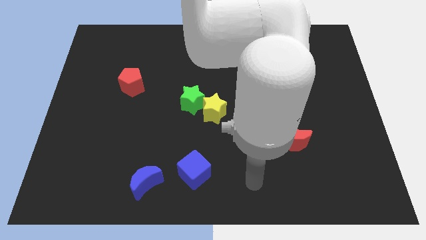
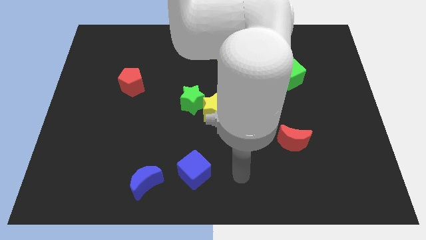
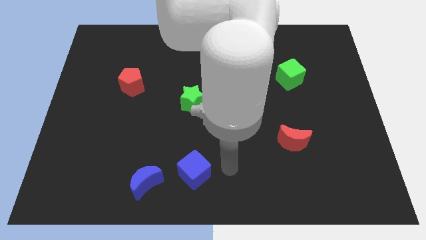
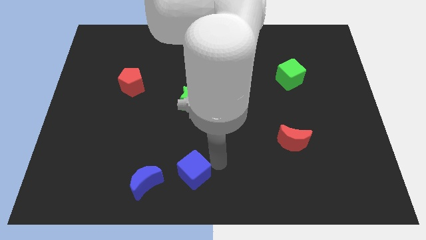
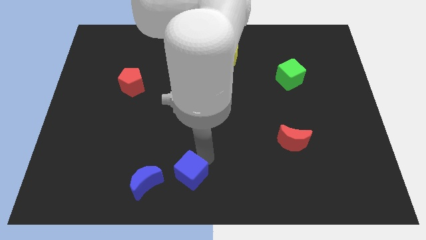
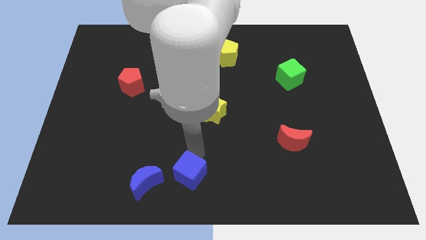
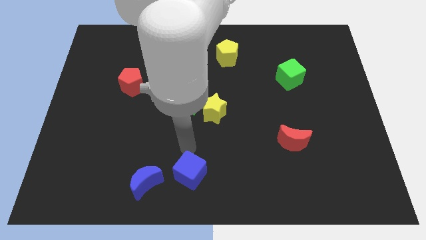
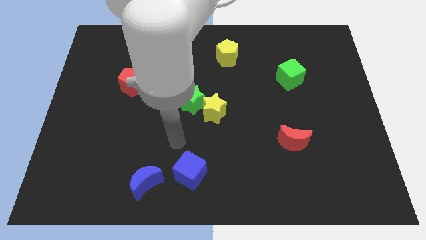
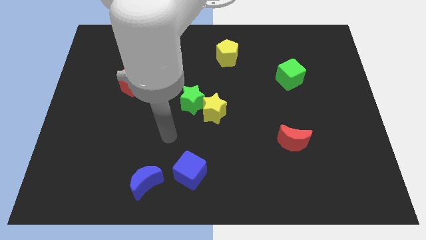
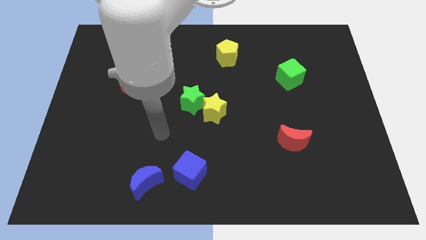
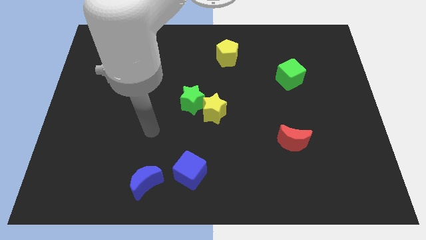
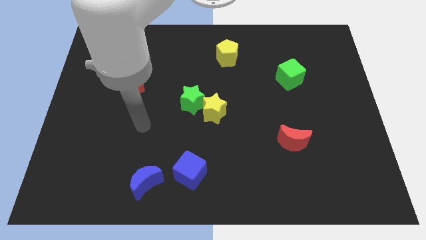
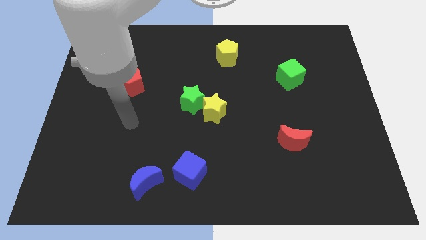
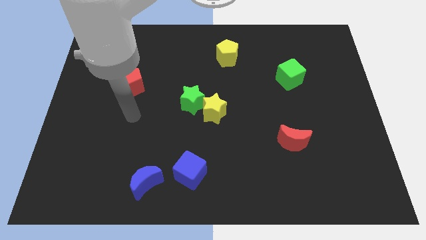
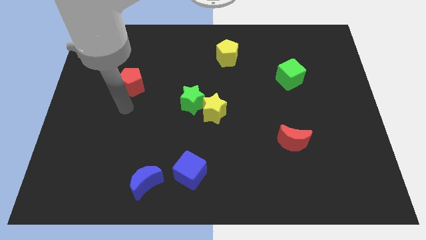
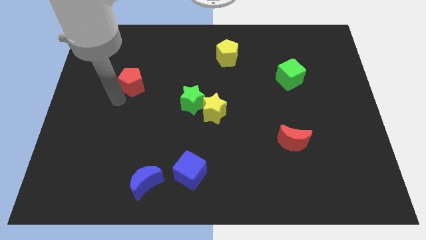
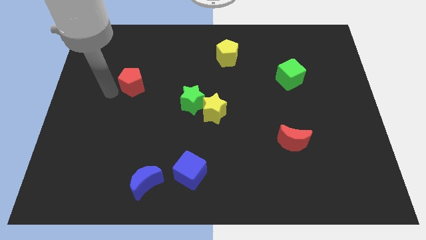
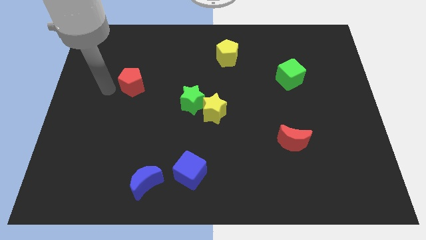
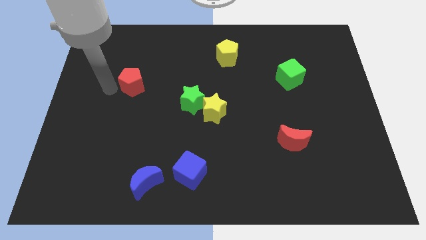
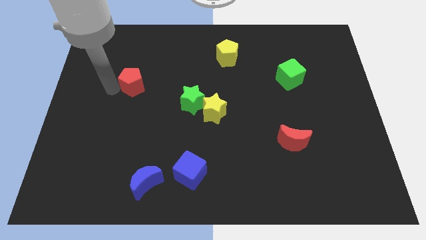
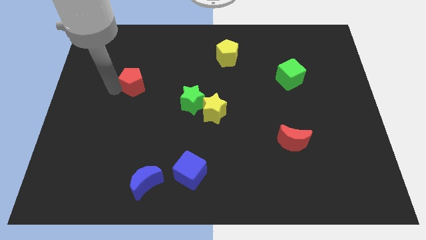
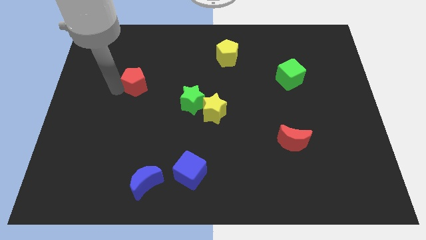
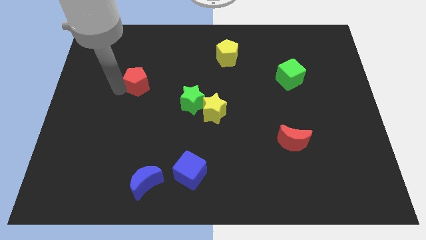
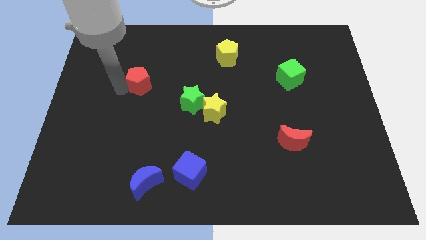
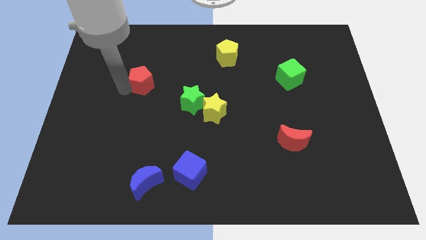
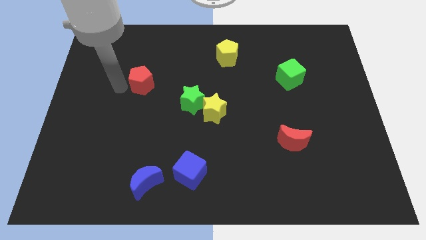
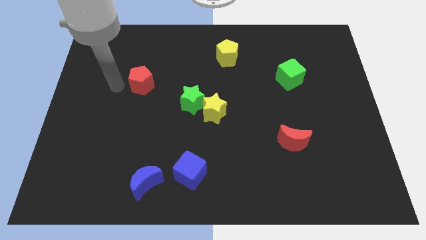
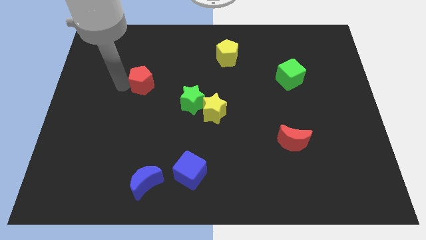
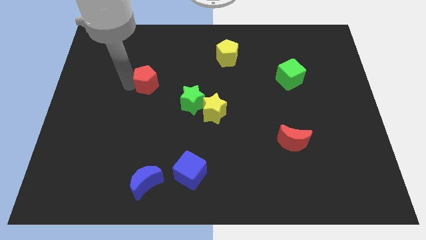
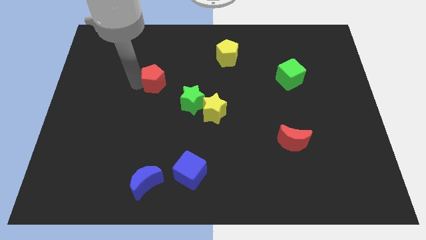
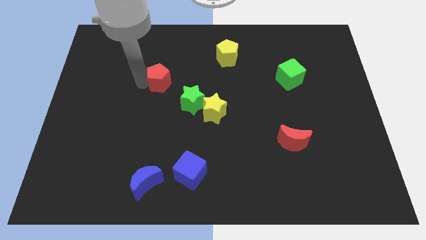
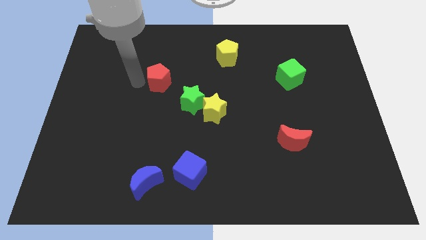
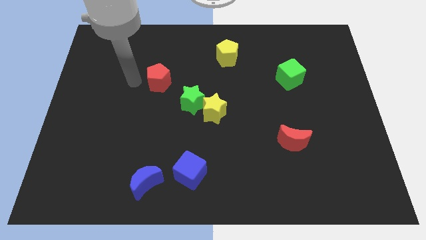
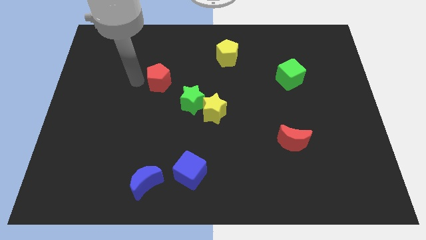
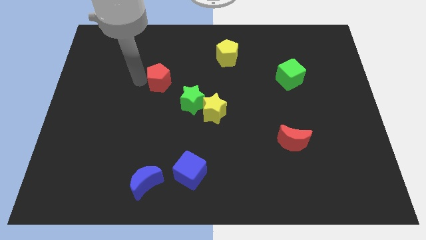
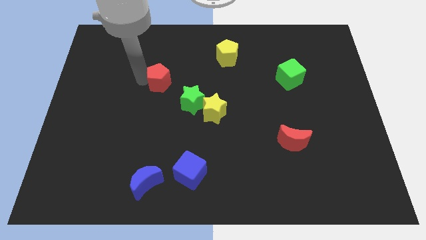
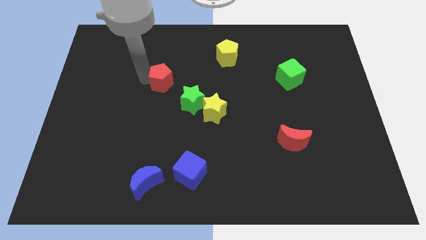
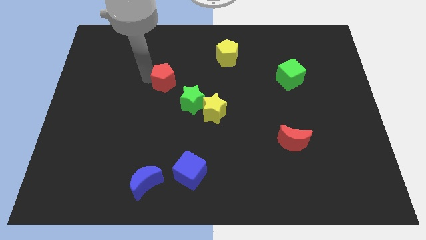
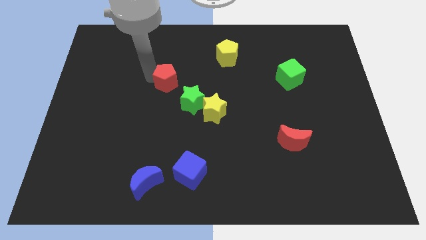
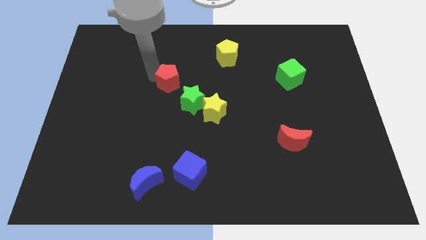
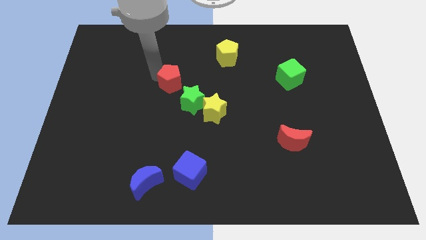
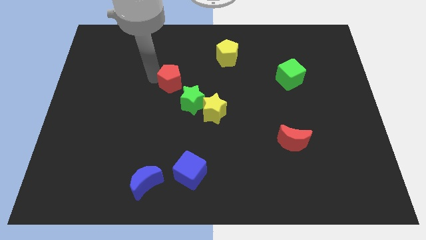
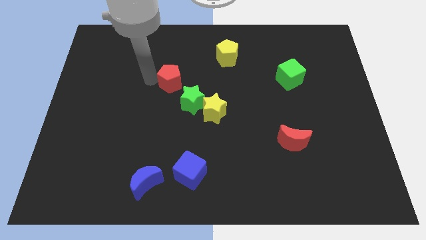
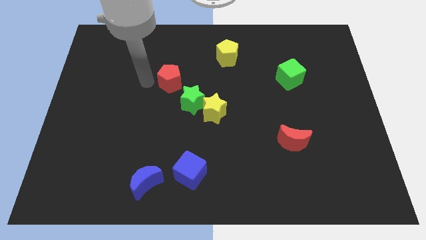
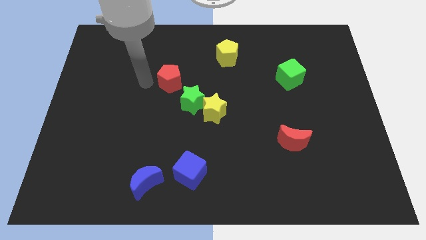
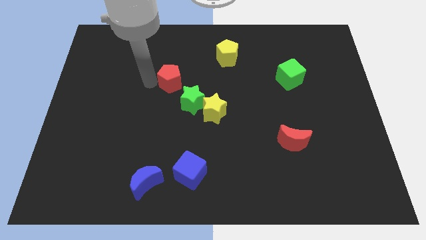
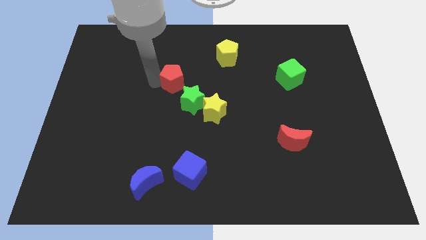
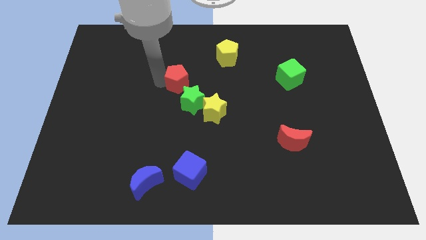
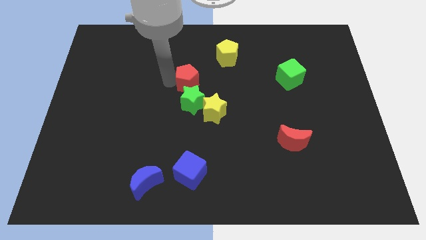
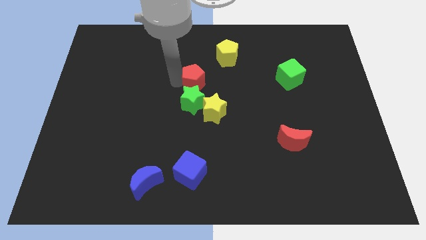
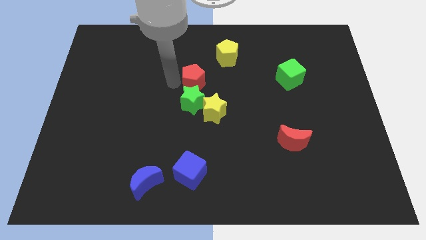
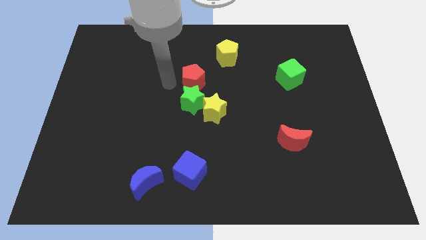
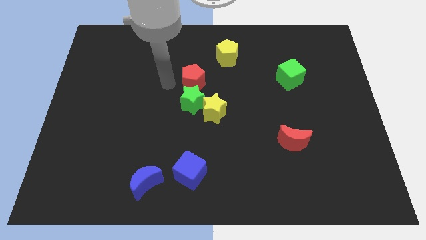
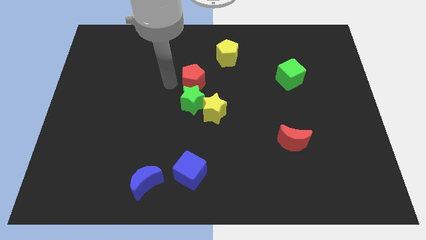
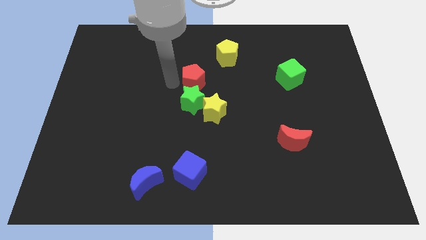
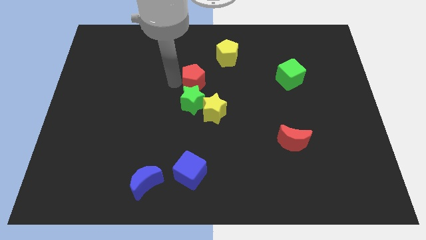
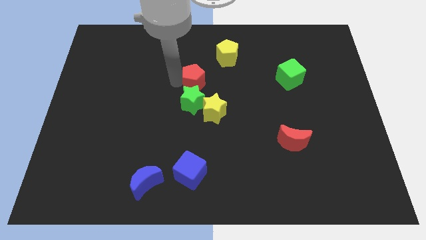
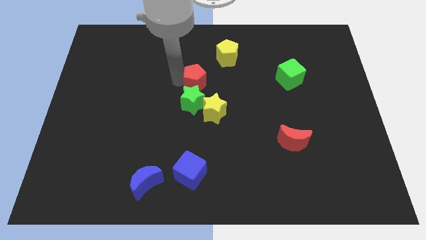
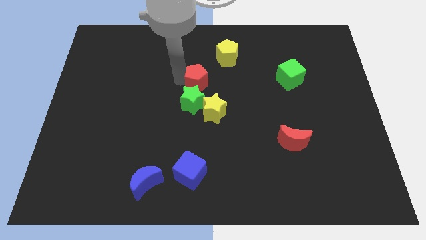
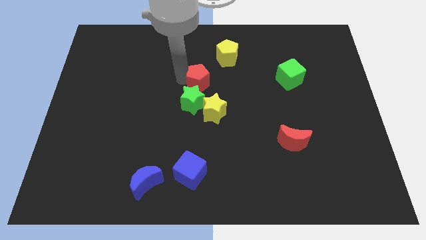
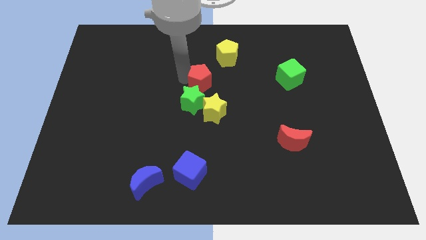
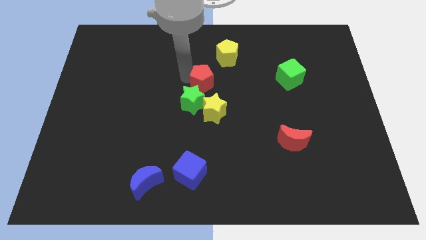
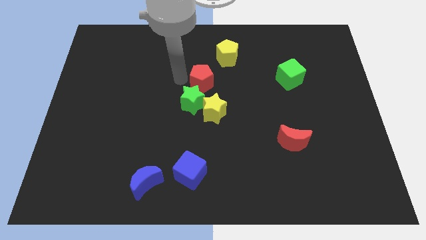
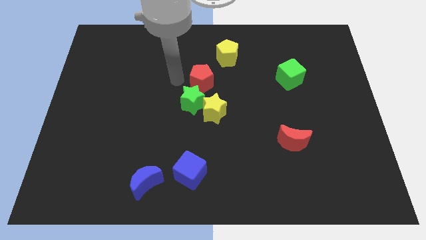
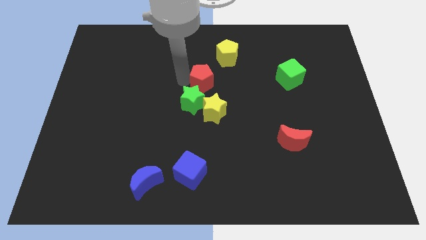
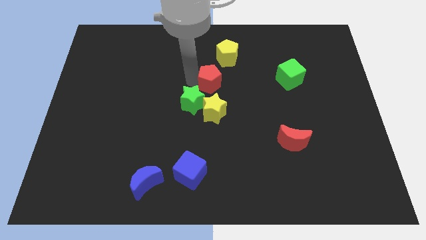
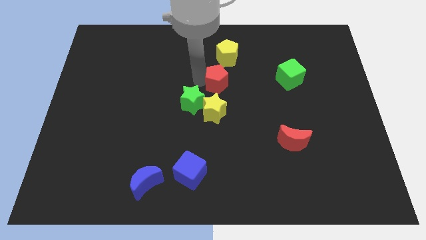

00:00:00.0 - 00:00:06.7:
push the red pentagon right

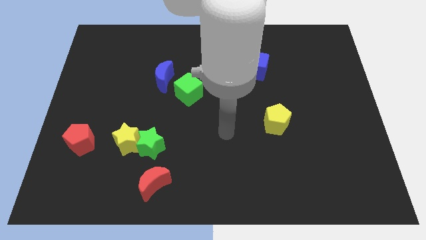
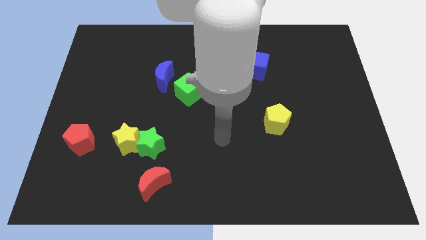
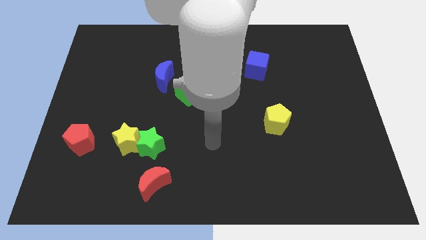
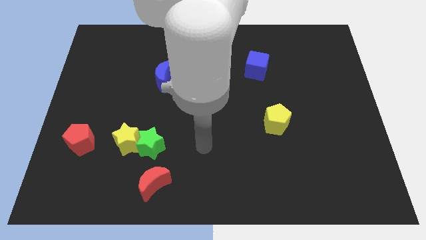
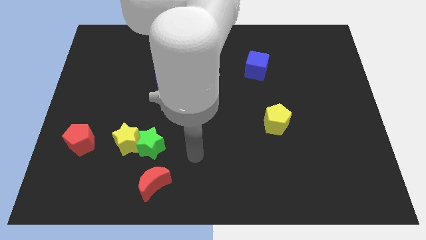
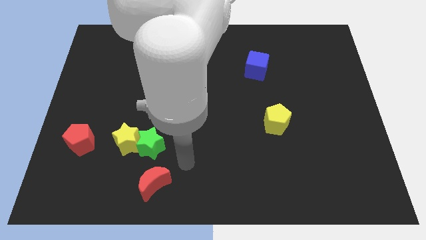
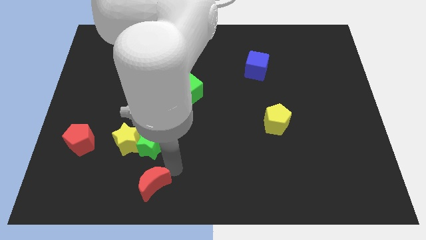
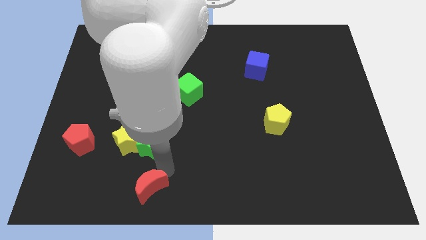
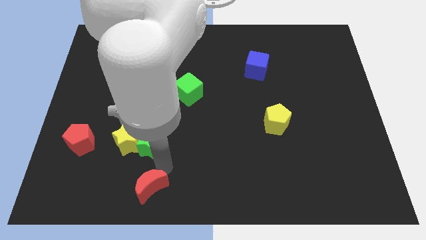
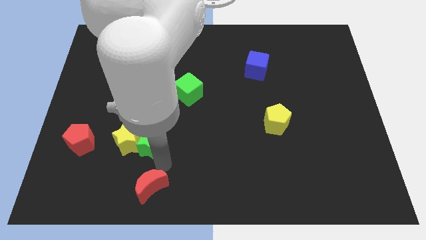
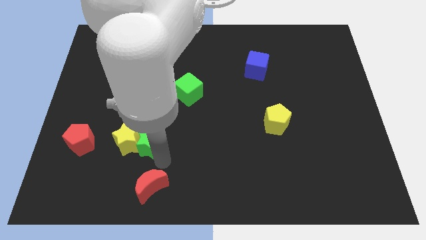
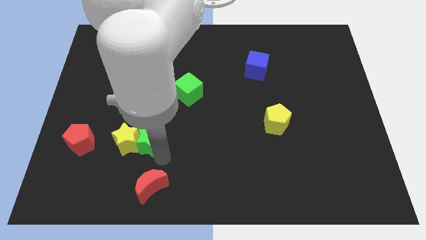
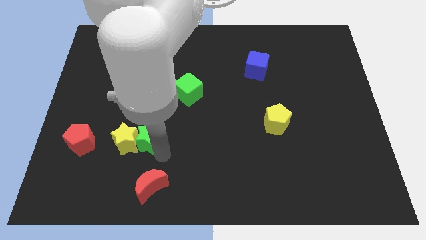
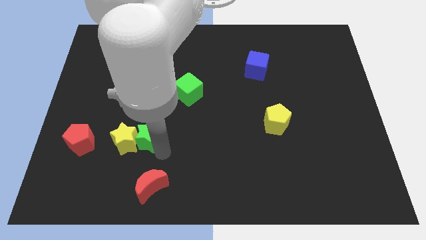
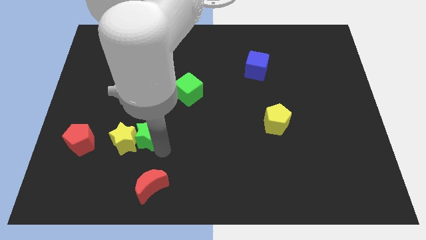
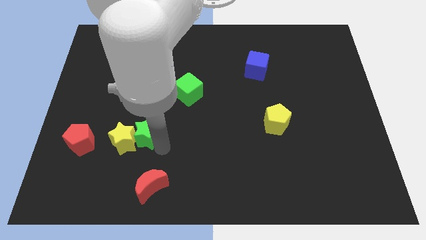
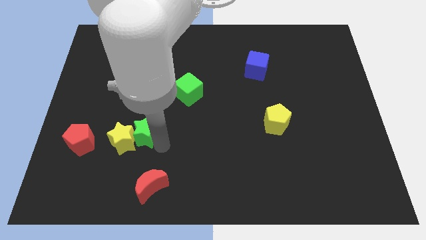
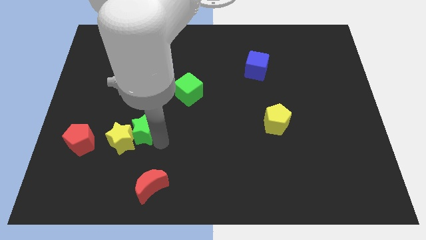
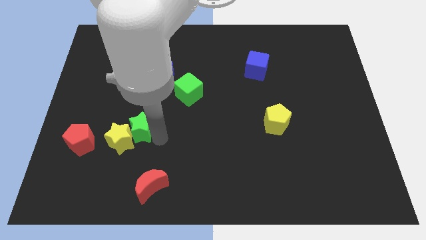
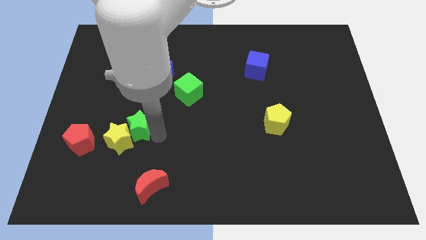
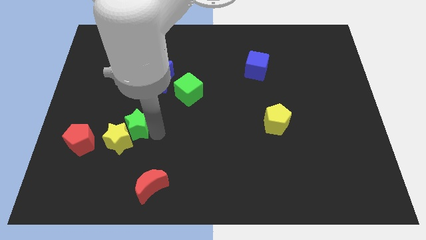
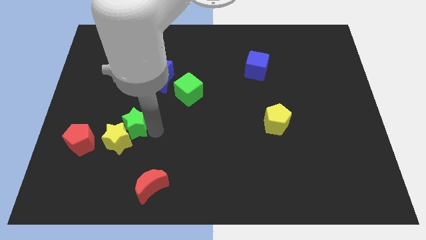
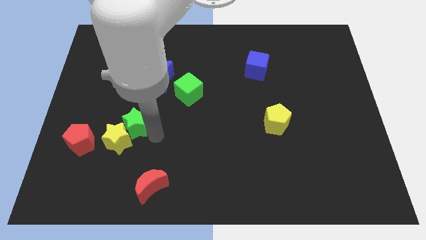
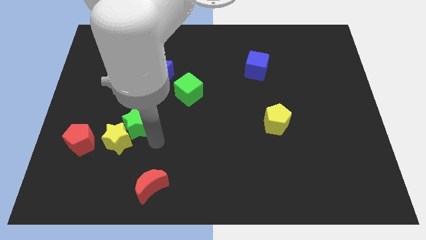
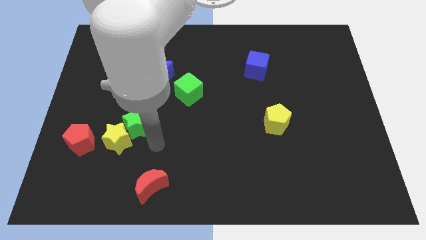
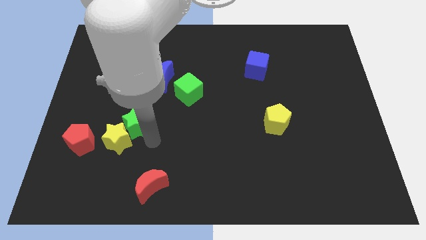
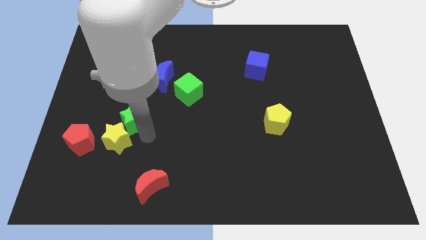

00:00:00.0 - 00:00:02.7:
slide the green star upwards and then left a bit
